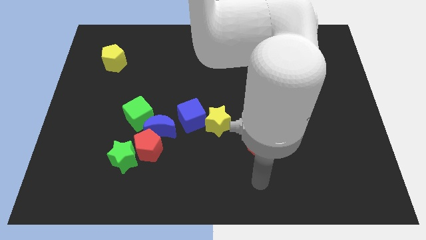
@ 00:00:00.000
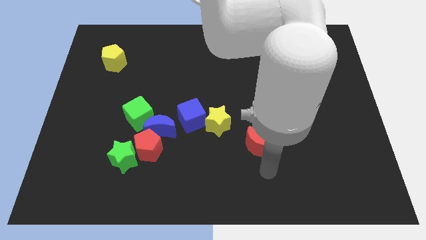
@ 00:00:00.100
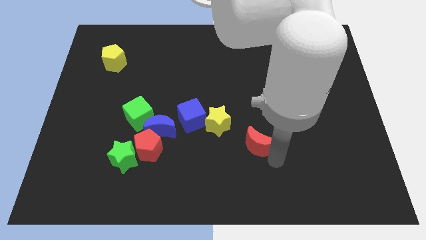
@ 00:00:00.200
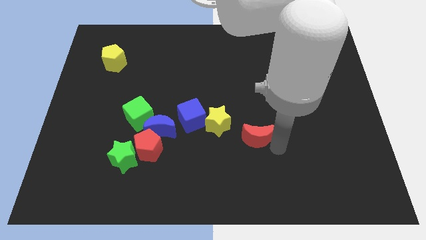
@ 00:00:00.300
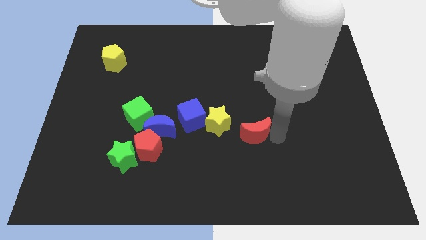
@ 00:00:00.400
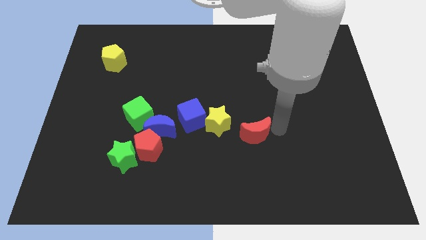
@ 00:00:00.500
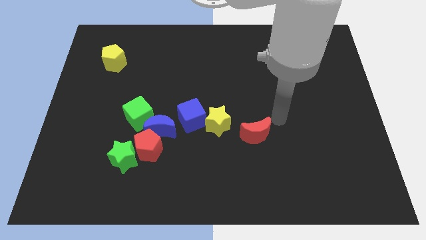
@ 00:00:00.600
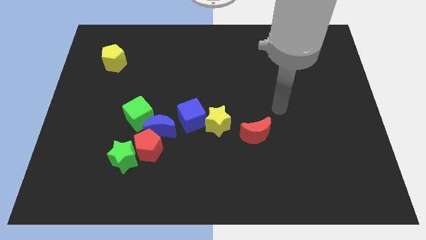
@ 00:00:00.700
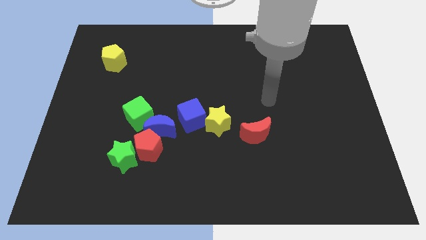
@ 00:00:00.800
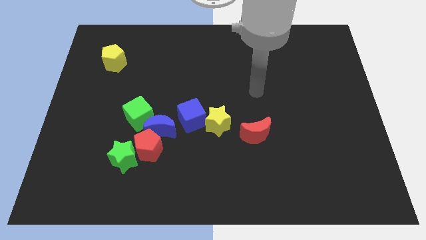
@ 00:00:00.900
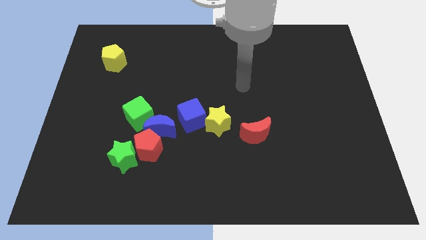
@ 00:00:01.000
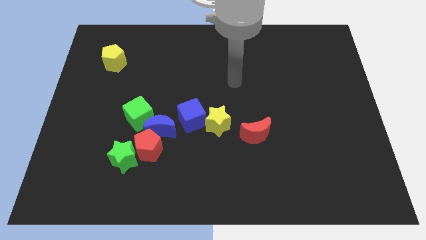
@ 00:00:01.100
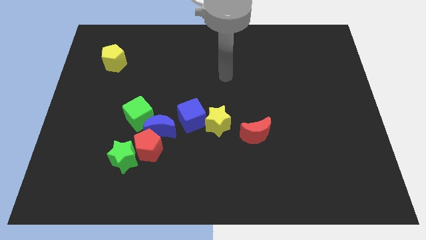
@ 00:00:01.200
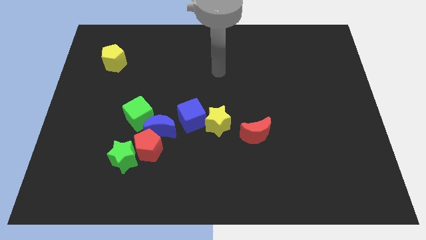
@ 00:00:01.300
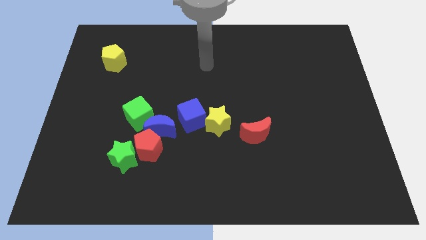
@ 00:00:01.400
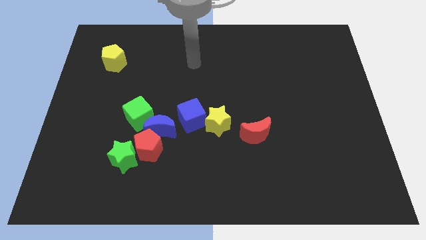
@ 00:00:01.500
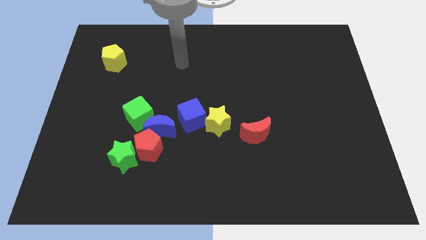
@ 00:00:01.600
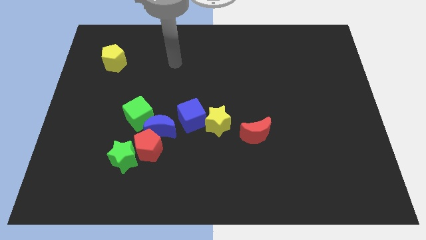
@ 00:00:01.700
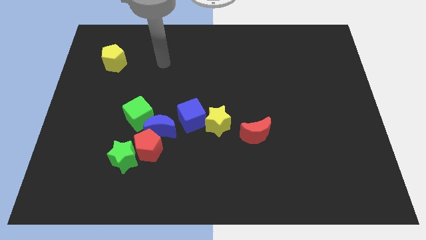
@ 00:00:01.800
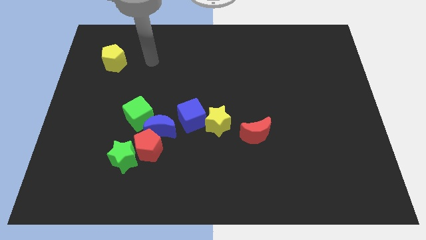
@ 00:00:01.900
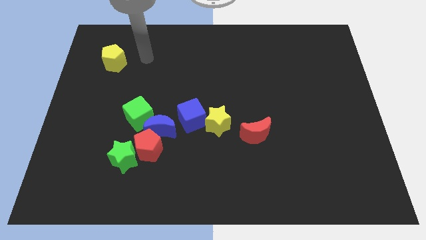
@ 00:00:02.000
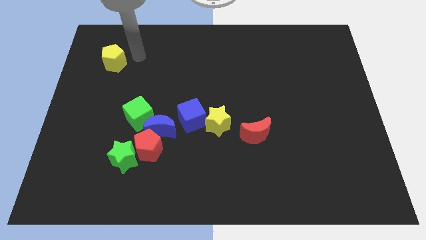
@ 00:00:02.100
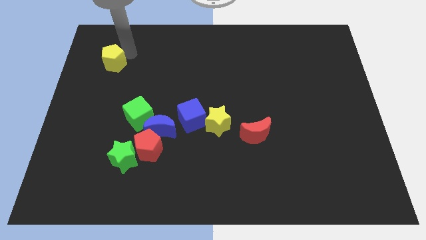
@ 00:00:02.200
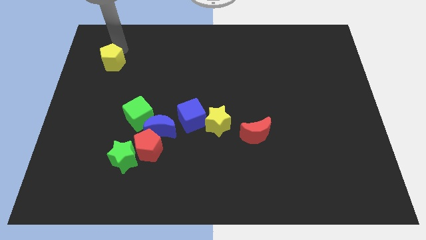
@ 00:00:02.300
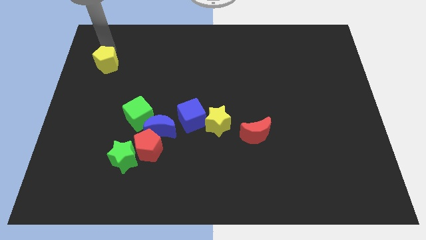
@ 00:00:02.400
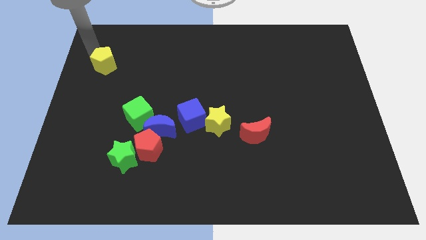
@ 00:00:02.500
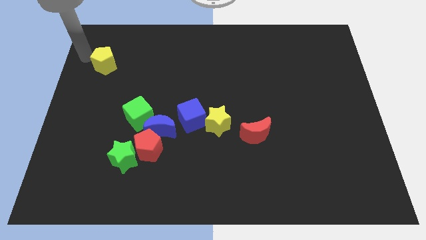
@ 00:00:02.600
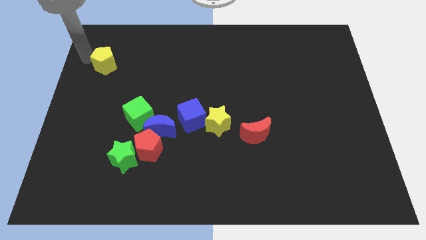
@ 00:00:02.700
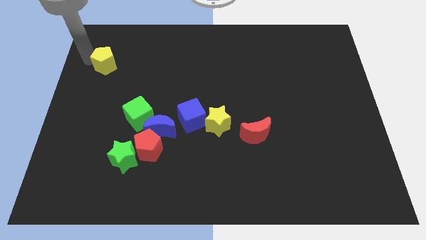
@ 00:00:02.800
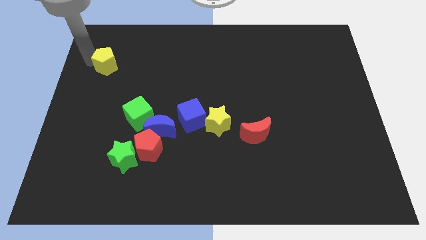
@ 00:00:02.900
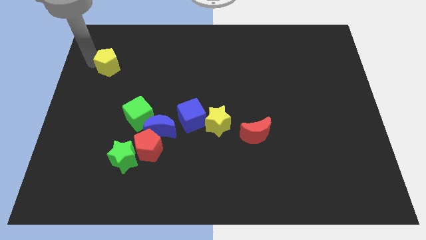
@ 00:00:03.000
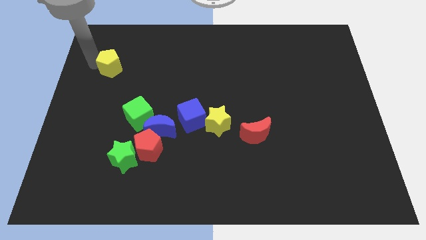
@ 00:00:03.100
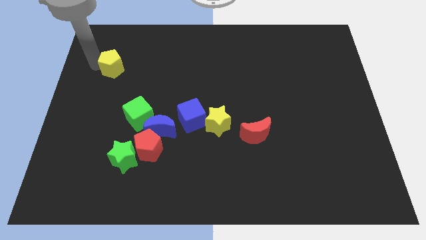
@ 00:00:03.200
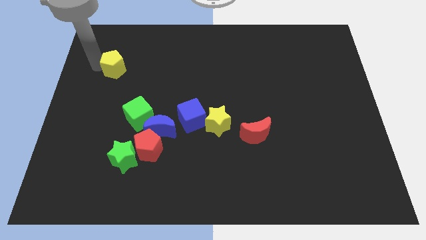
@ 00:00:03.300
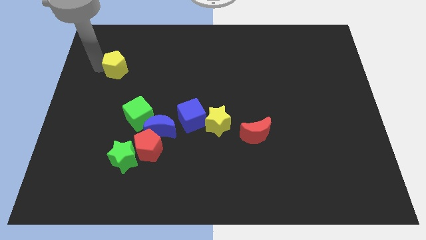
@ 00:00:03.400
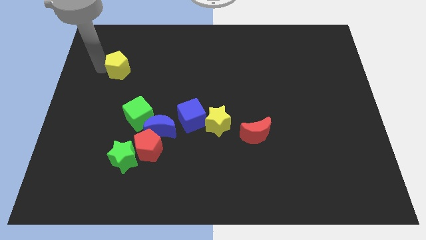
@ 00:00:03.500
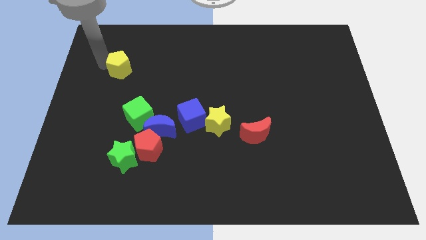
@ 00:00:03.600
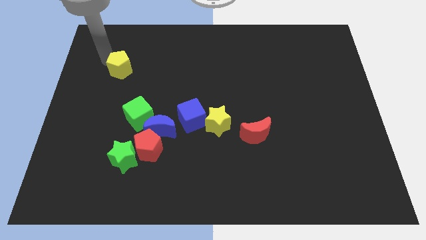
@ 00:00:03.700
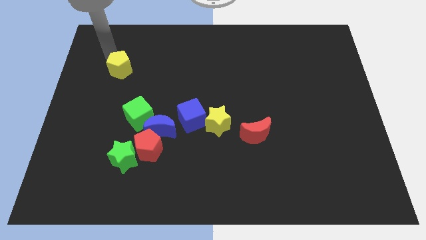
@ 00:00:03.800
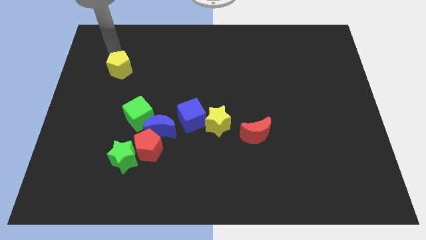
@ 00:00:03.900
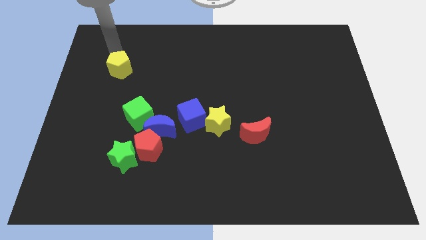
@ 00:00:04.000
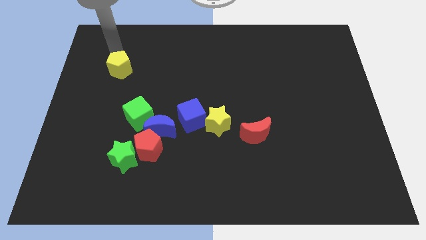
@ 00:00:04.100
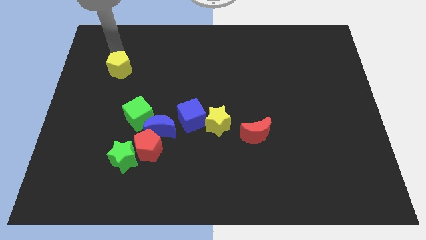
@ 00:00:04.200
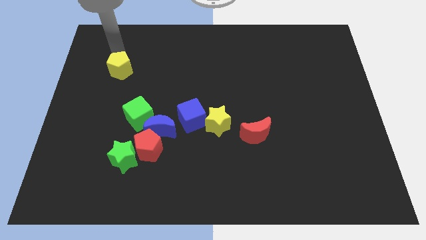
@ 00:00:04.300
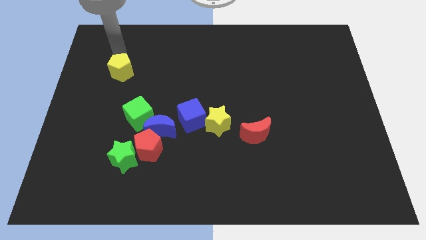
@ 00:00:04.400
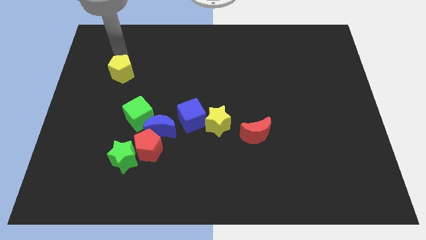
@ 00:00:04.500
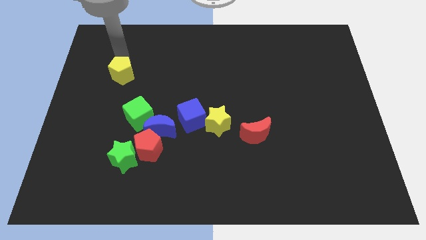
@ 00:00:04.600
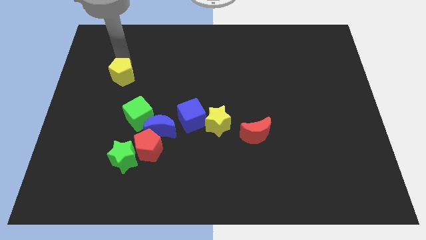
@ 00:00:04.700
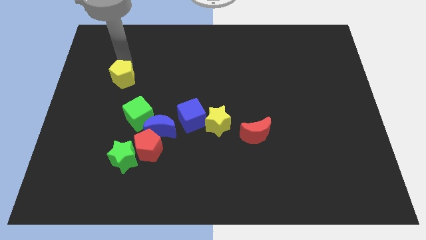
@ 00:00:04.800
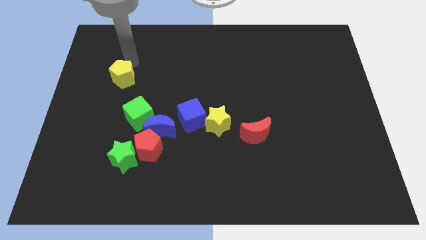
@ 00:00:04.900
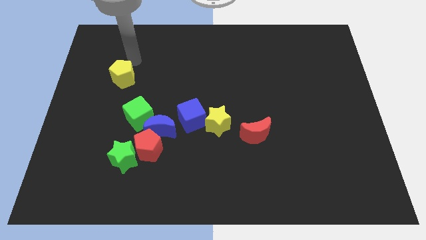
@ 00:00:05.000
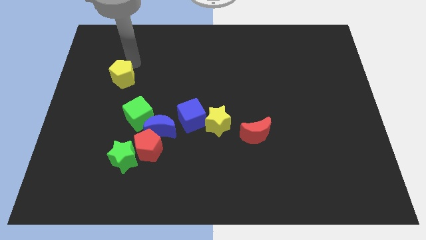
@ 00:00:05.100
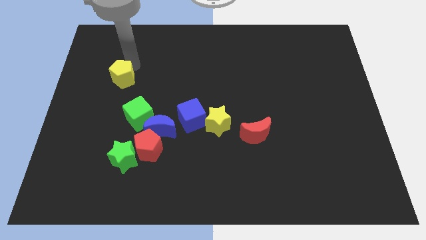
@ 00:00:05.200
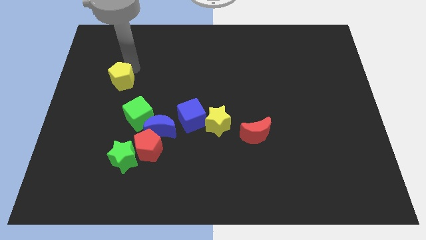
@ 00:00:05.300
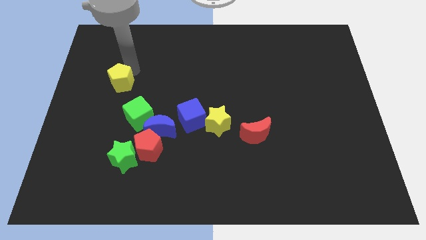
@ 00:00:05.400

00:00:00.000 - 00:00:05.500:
push the yellow pentagon downwards slightly

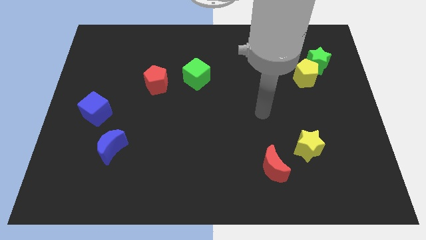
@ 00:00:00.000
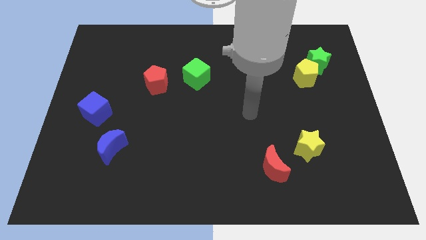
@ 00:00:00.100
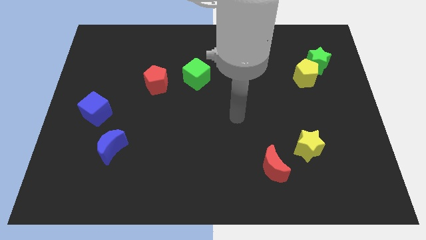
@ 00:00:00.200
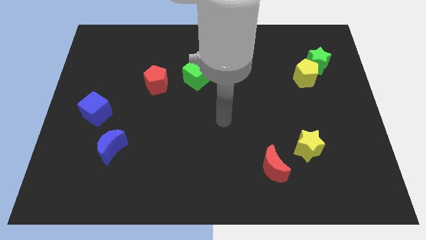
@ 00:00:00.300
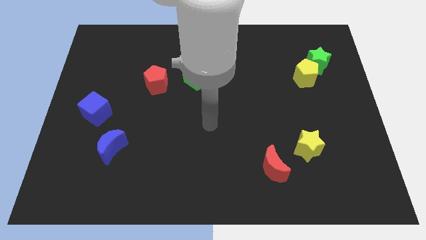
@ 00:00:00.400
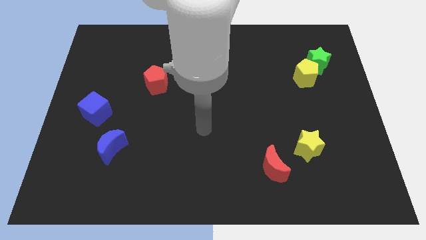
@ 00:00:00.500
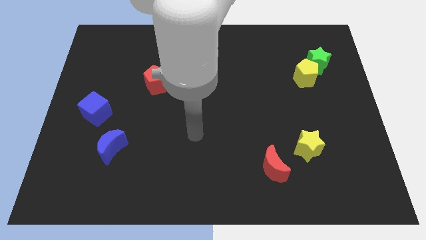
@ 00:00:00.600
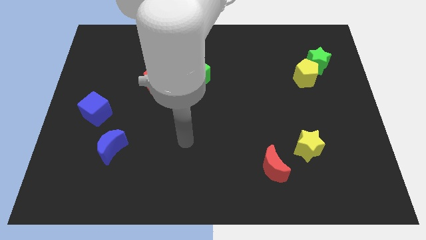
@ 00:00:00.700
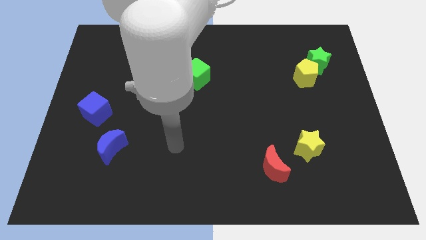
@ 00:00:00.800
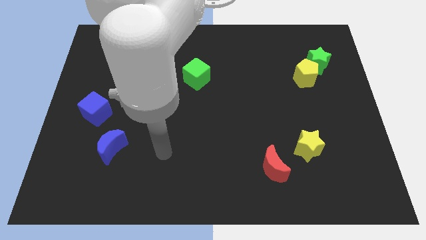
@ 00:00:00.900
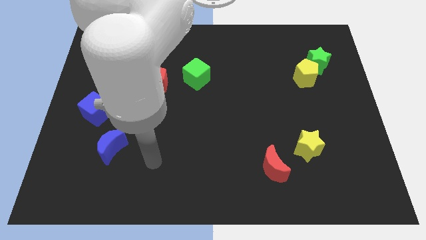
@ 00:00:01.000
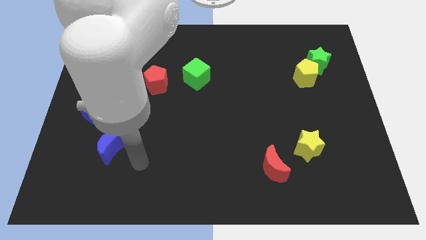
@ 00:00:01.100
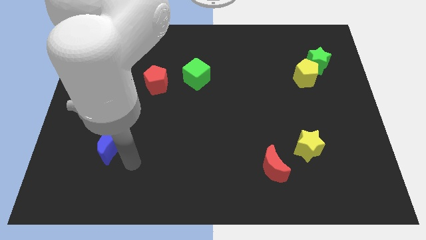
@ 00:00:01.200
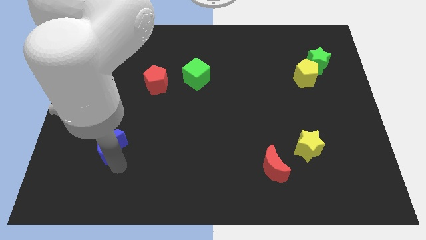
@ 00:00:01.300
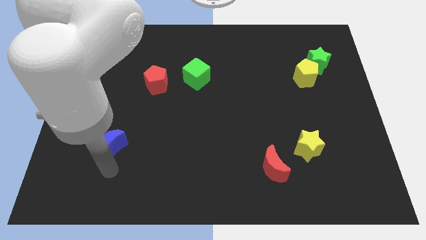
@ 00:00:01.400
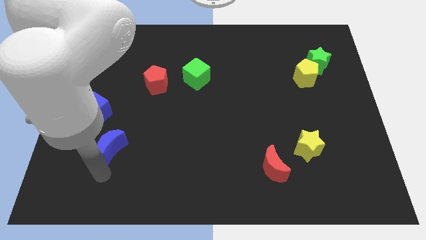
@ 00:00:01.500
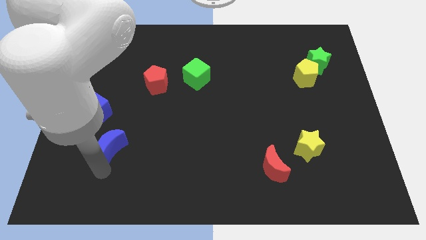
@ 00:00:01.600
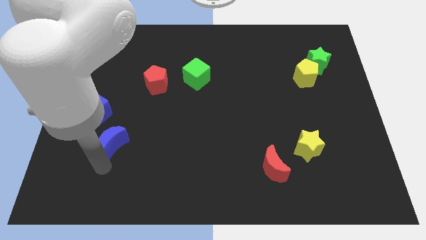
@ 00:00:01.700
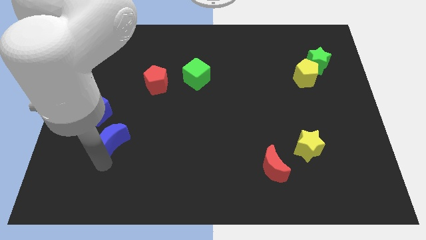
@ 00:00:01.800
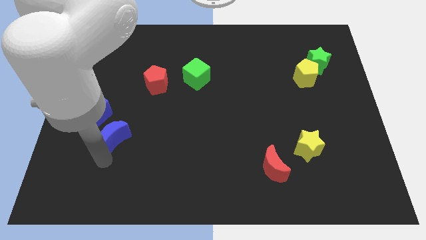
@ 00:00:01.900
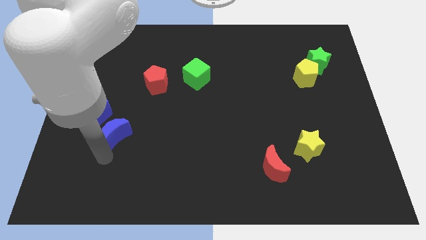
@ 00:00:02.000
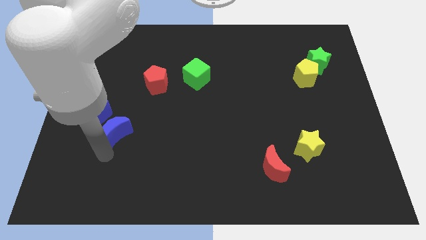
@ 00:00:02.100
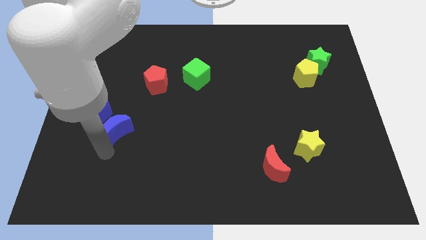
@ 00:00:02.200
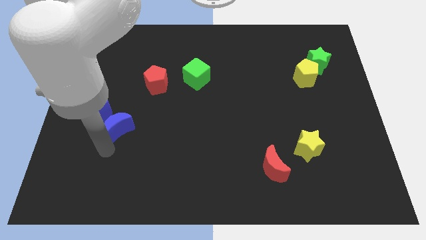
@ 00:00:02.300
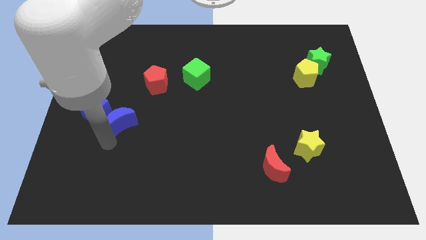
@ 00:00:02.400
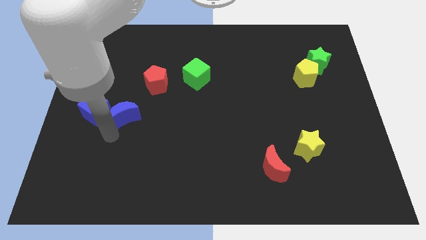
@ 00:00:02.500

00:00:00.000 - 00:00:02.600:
move the blue moon upwards a little
